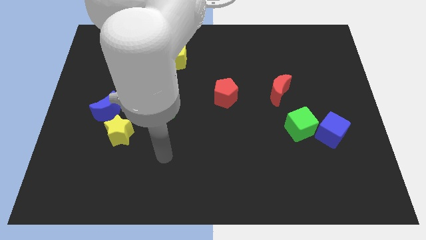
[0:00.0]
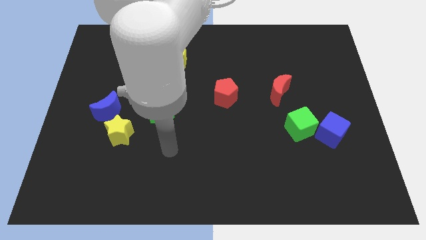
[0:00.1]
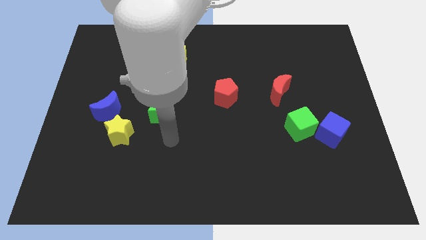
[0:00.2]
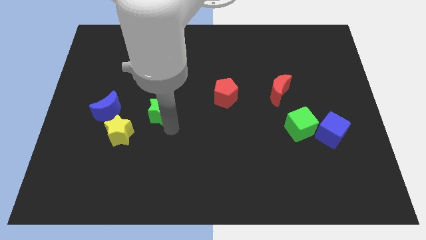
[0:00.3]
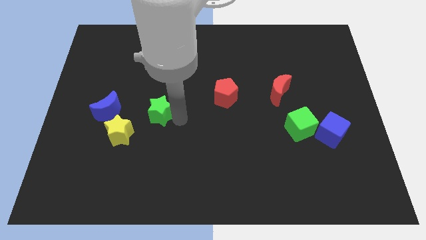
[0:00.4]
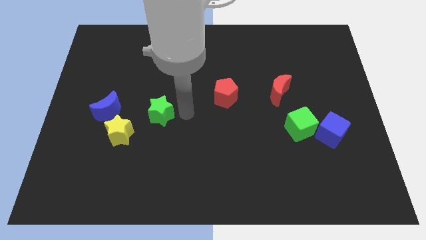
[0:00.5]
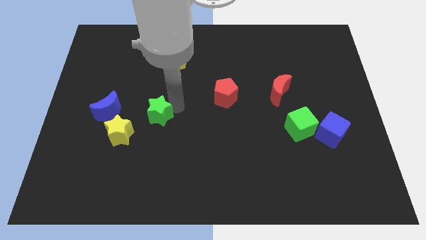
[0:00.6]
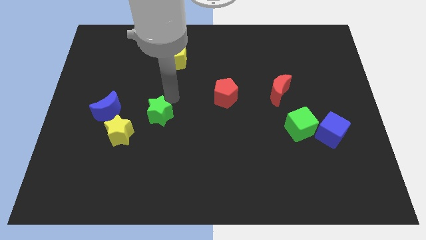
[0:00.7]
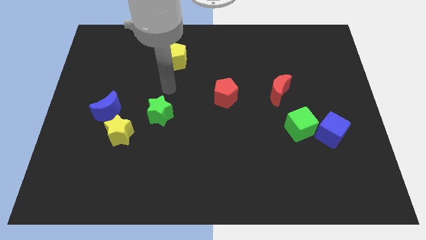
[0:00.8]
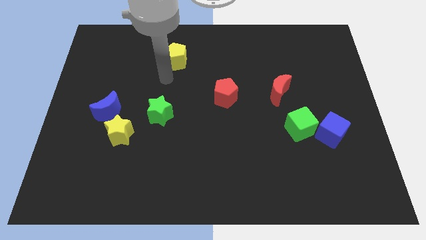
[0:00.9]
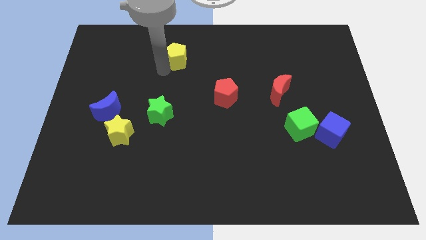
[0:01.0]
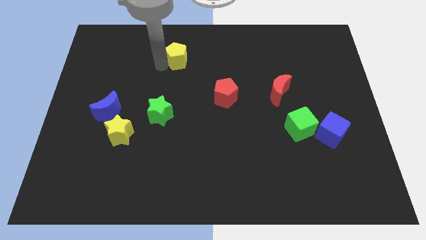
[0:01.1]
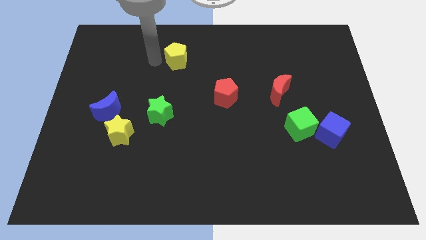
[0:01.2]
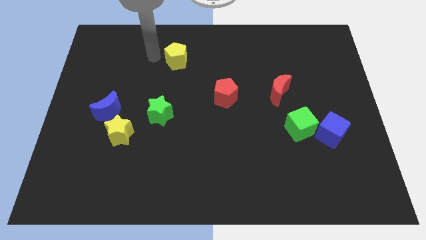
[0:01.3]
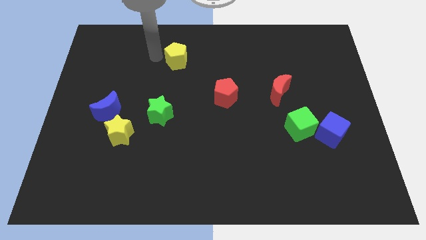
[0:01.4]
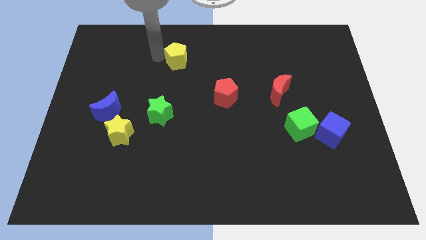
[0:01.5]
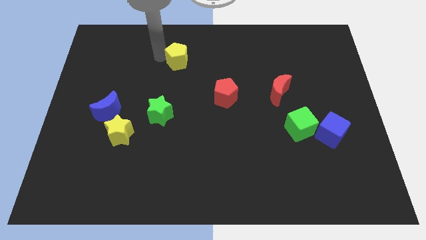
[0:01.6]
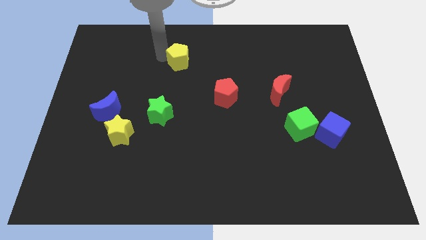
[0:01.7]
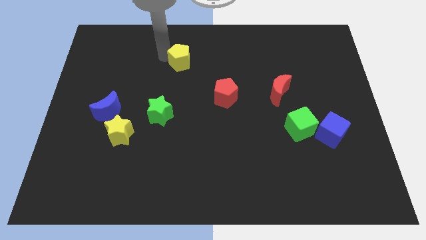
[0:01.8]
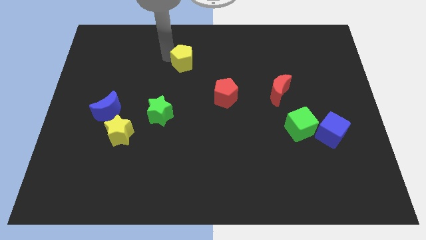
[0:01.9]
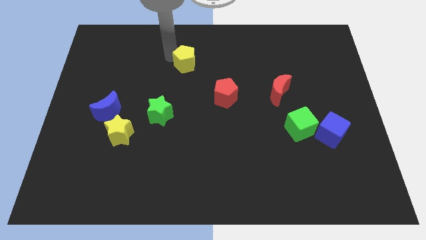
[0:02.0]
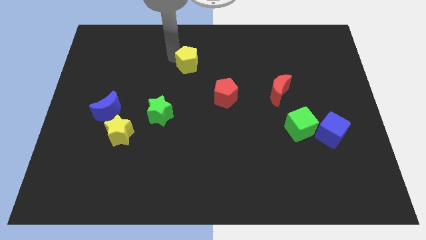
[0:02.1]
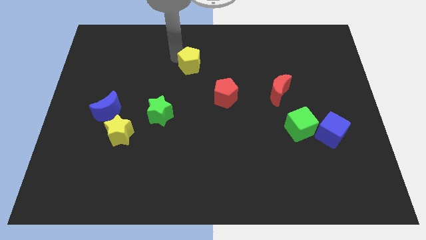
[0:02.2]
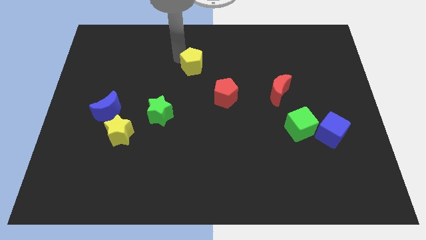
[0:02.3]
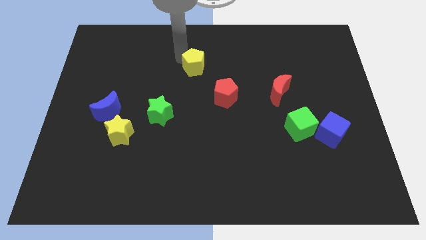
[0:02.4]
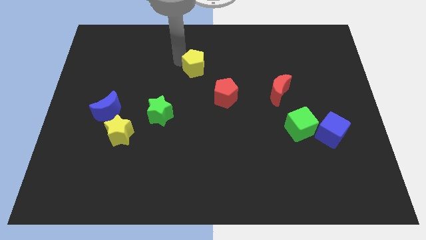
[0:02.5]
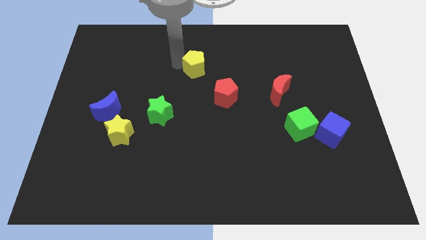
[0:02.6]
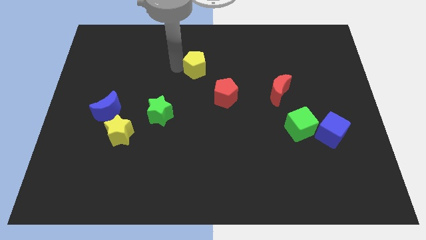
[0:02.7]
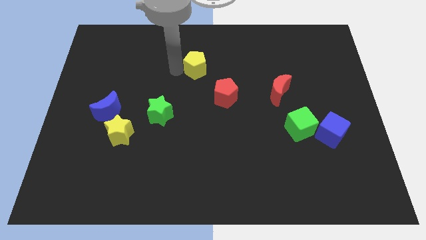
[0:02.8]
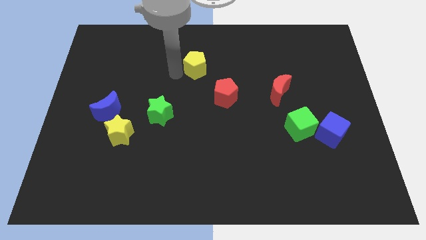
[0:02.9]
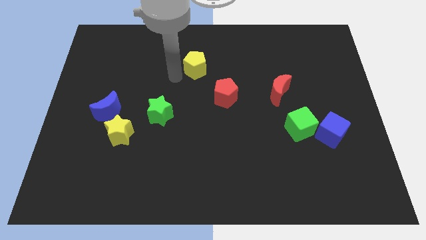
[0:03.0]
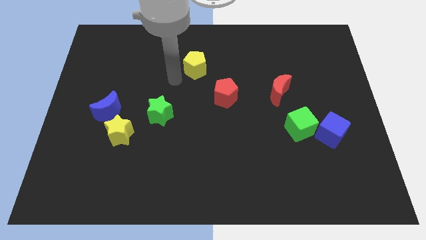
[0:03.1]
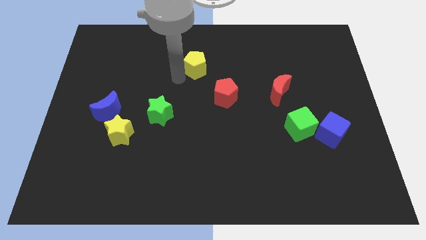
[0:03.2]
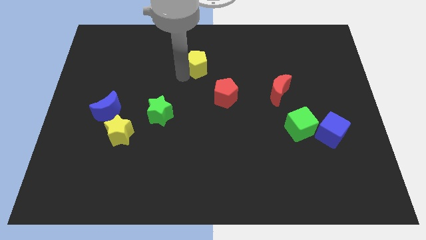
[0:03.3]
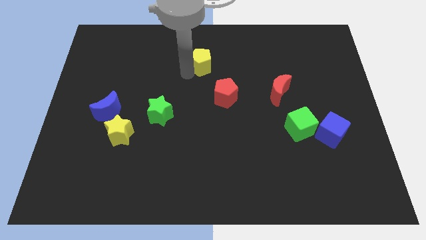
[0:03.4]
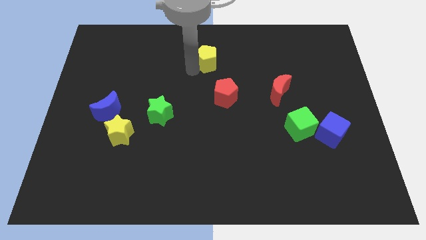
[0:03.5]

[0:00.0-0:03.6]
push the yellow pentagon slightly to the right

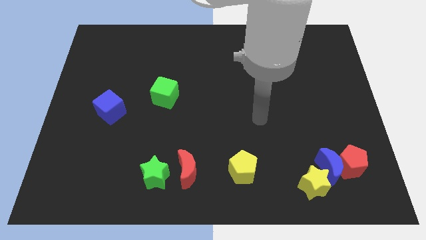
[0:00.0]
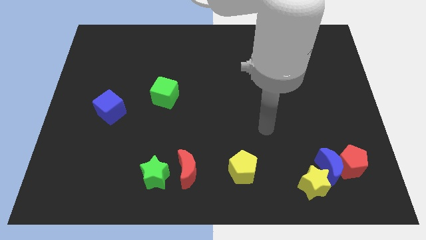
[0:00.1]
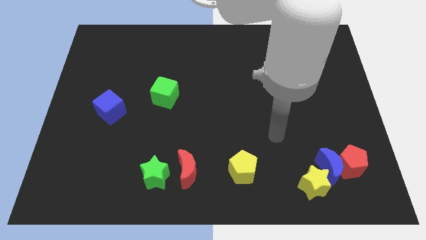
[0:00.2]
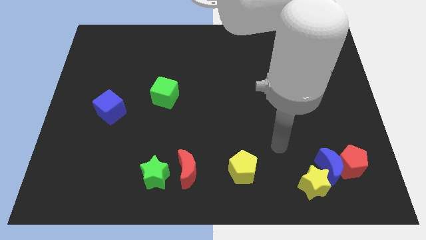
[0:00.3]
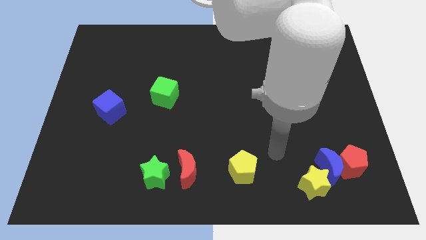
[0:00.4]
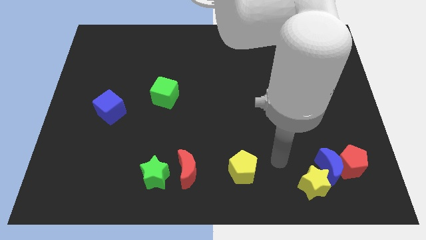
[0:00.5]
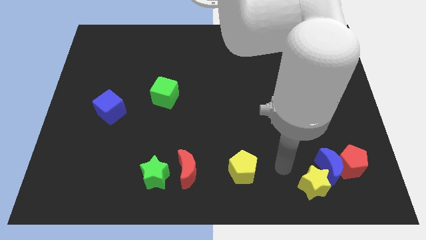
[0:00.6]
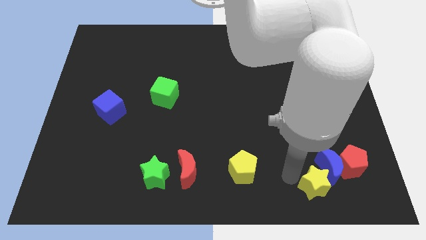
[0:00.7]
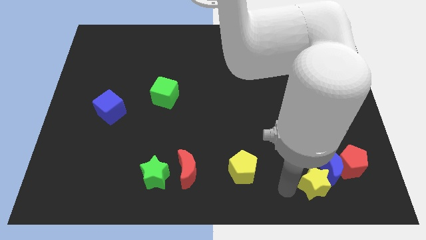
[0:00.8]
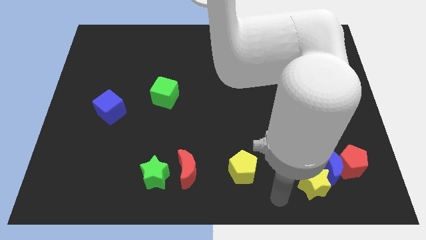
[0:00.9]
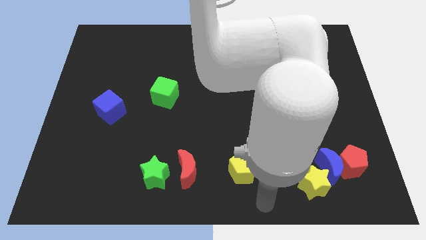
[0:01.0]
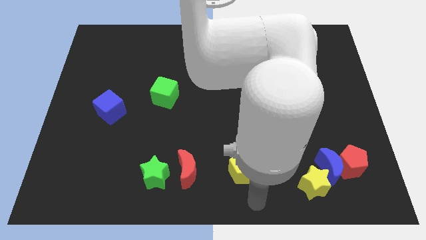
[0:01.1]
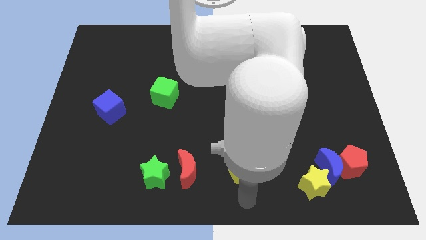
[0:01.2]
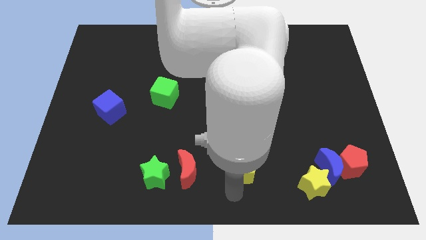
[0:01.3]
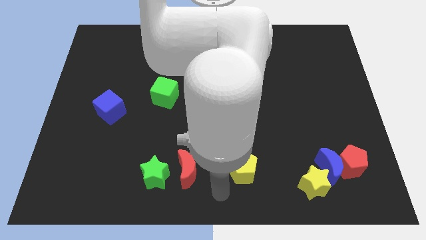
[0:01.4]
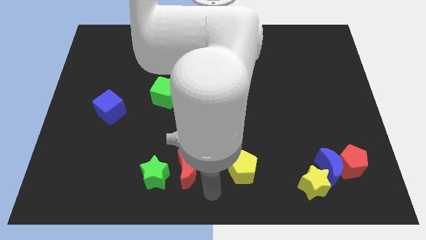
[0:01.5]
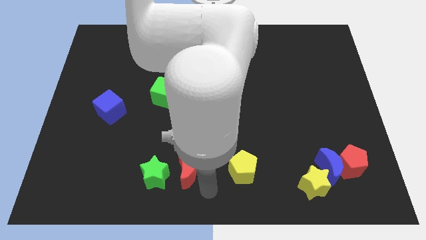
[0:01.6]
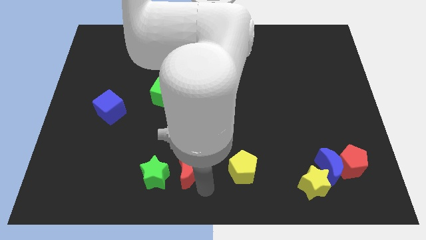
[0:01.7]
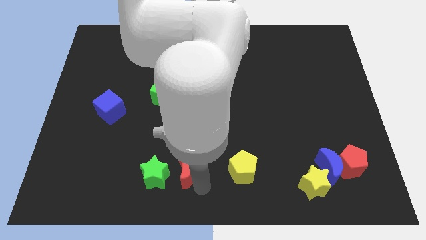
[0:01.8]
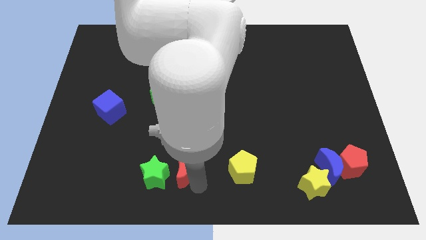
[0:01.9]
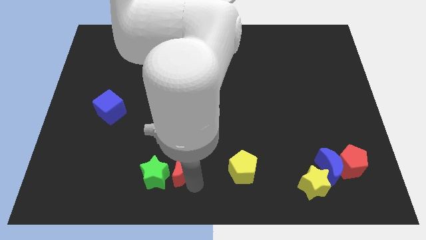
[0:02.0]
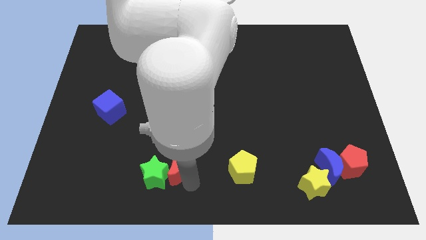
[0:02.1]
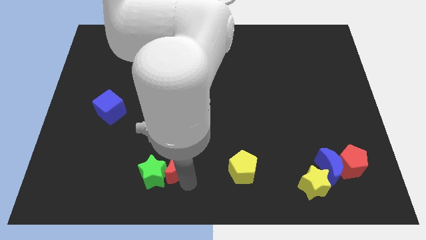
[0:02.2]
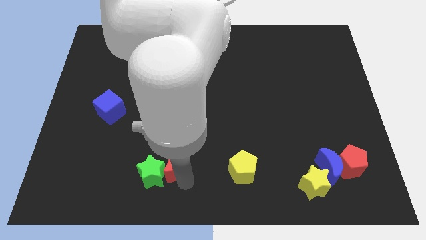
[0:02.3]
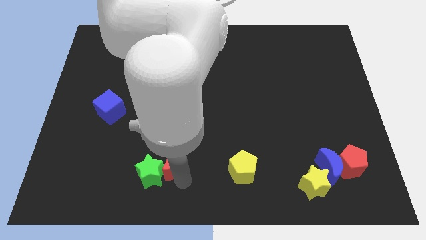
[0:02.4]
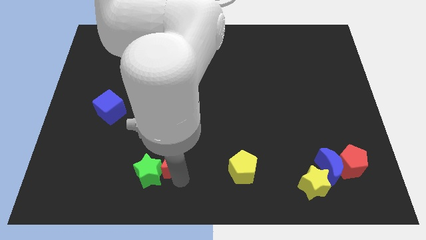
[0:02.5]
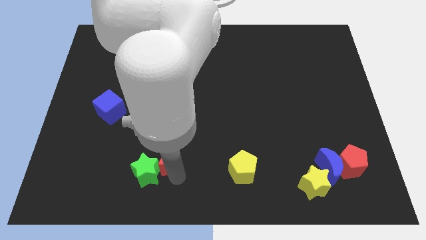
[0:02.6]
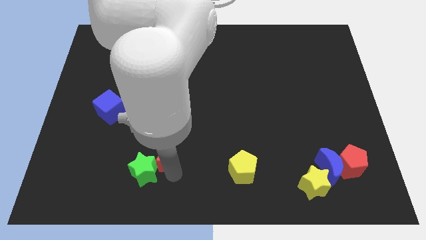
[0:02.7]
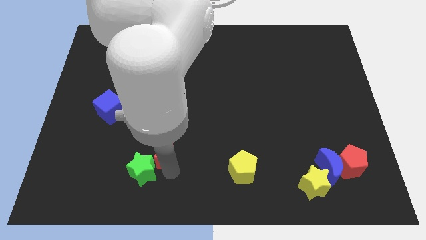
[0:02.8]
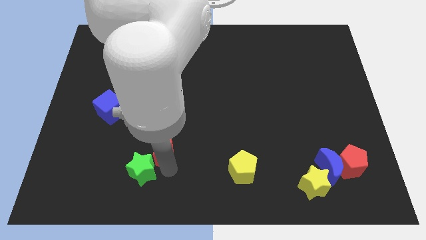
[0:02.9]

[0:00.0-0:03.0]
slightly move the red moon up and to the left diagonally

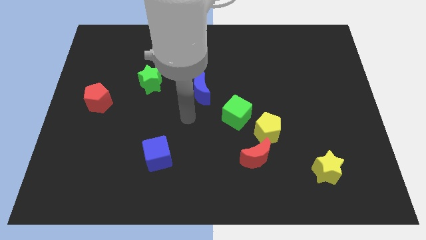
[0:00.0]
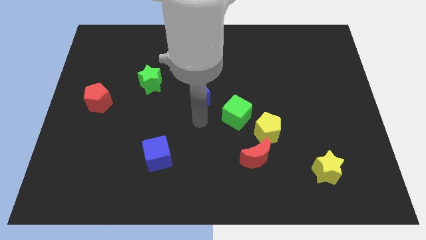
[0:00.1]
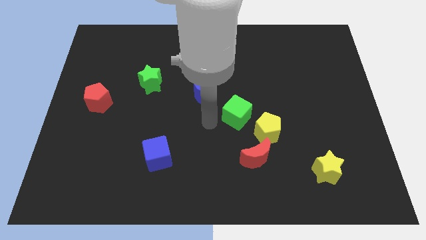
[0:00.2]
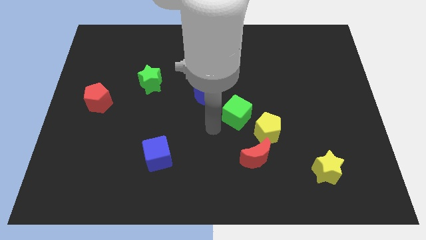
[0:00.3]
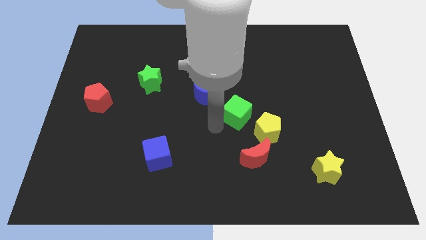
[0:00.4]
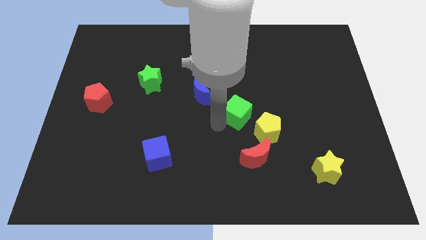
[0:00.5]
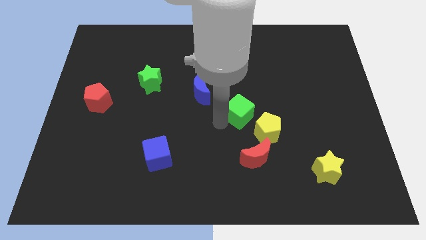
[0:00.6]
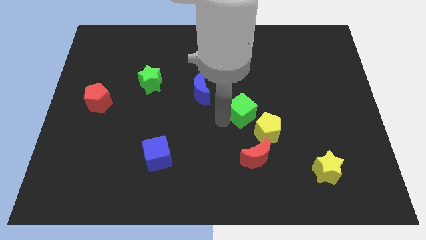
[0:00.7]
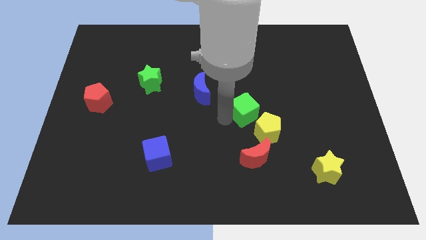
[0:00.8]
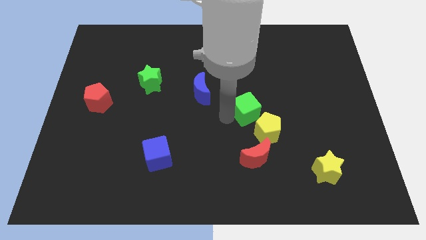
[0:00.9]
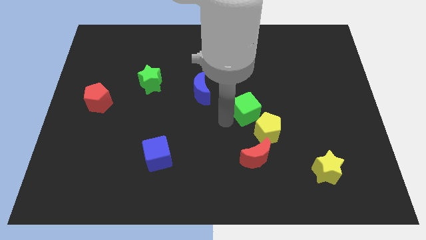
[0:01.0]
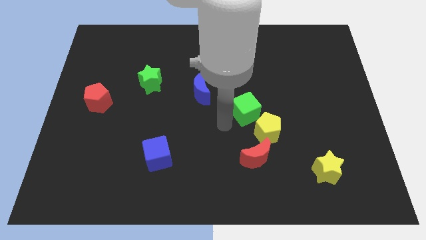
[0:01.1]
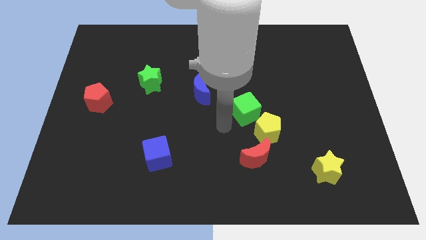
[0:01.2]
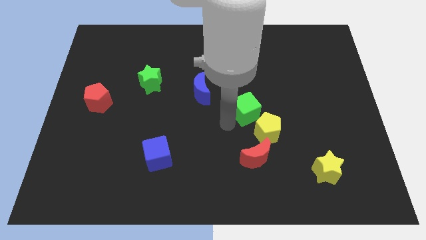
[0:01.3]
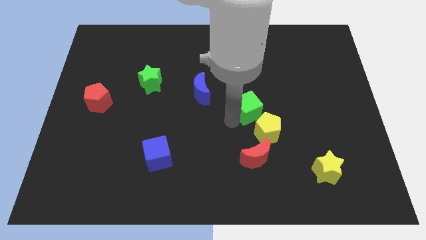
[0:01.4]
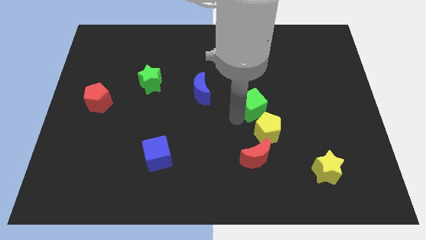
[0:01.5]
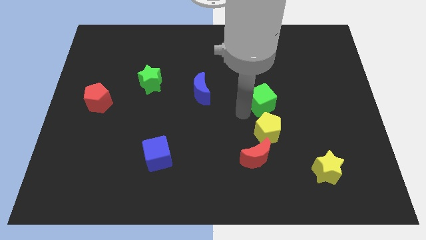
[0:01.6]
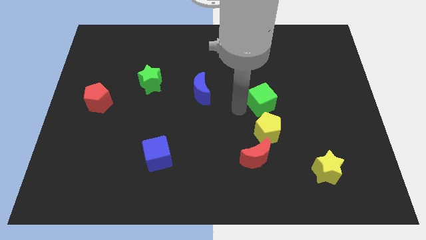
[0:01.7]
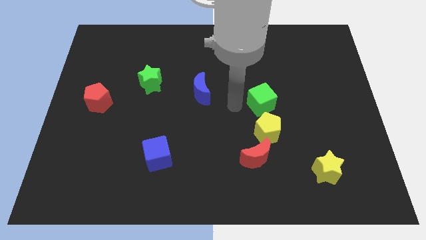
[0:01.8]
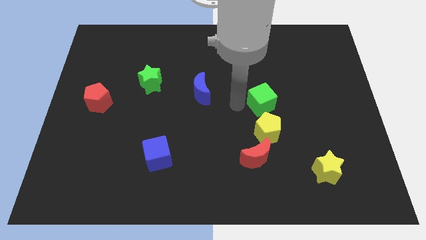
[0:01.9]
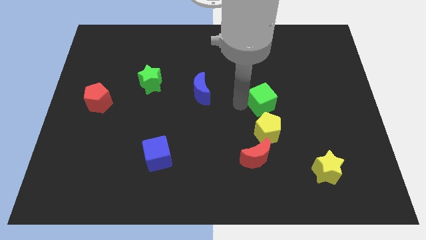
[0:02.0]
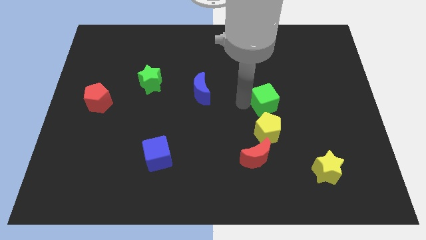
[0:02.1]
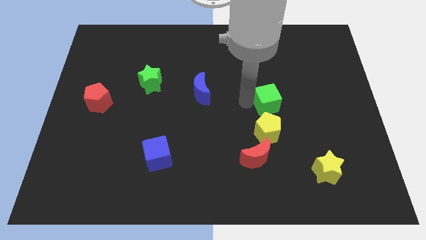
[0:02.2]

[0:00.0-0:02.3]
slide the green cube a little right
